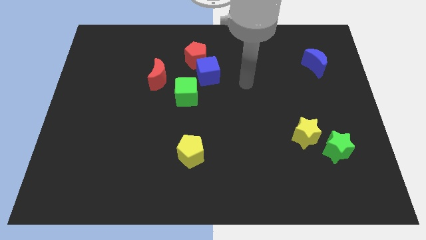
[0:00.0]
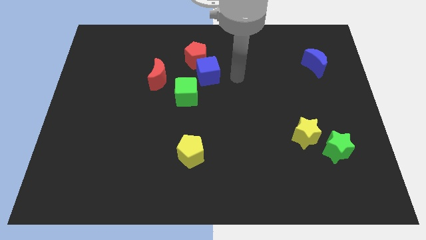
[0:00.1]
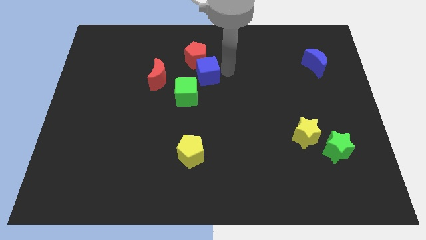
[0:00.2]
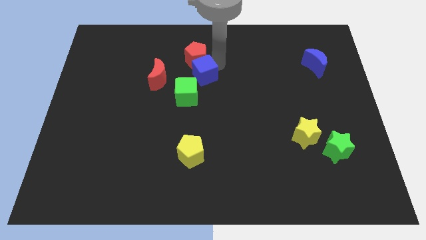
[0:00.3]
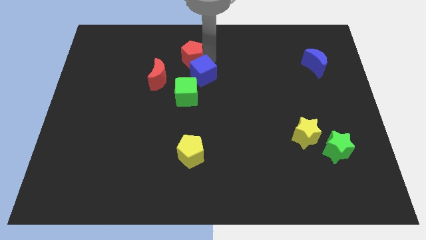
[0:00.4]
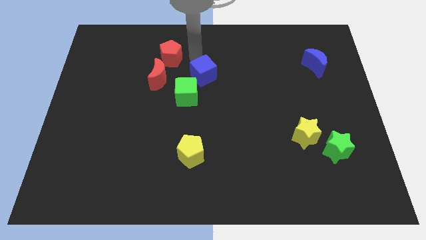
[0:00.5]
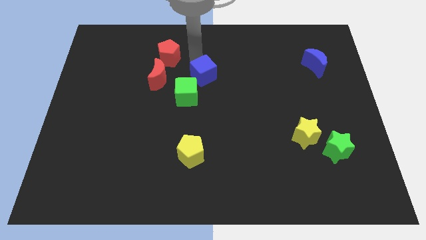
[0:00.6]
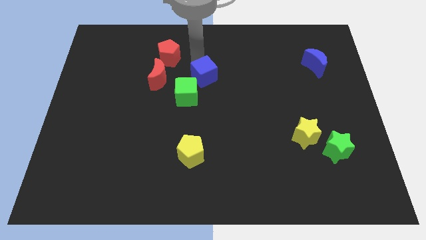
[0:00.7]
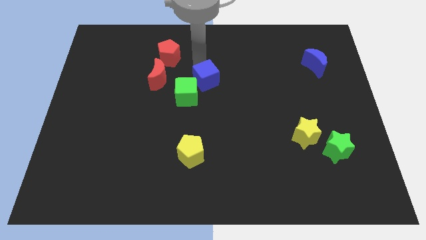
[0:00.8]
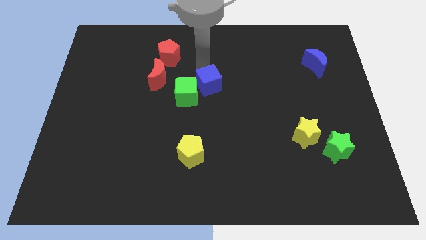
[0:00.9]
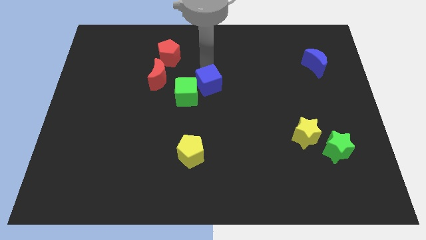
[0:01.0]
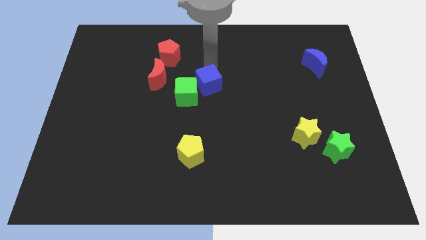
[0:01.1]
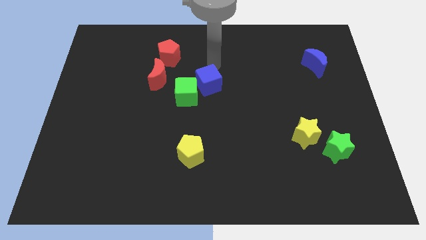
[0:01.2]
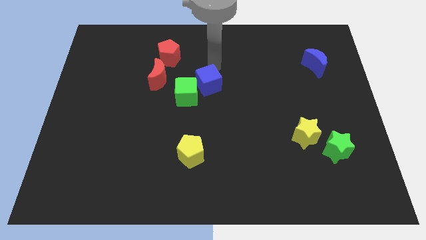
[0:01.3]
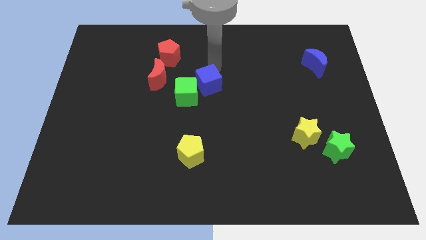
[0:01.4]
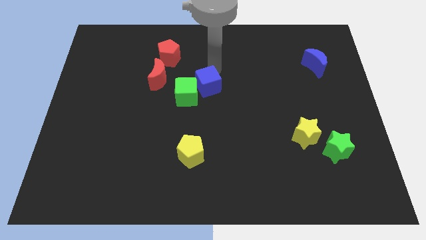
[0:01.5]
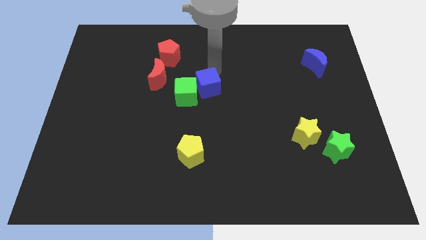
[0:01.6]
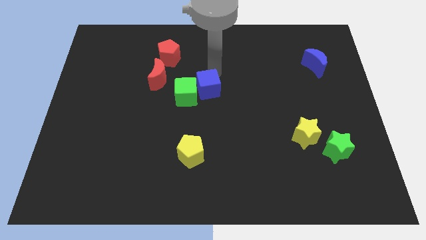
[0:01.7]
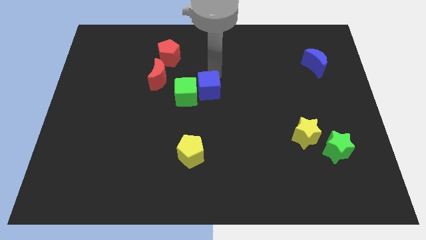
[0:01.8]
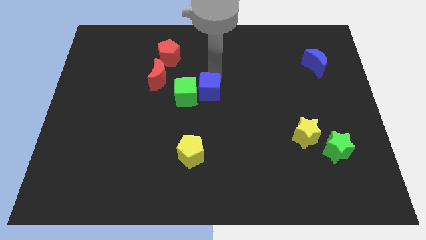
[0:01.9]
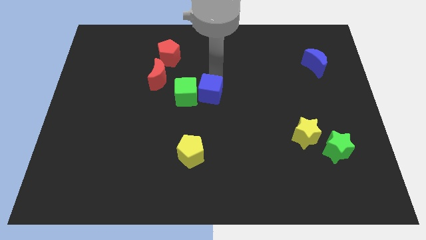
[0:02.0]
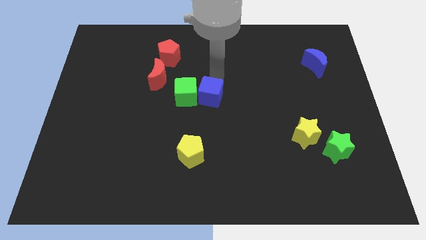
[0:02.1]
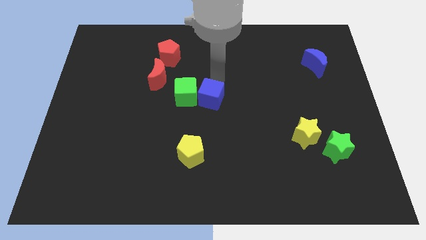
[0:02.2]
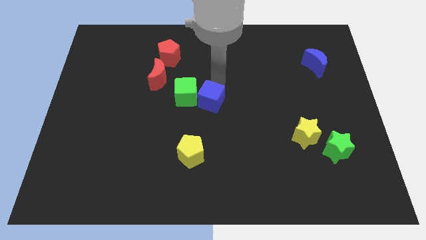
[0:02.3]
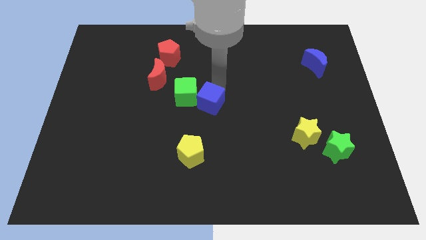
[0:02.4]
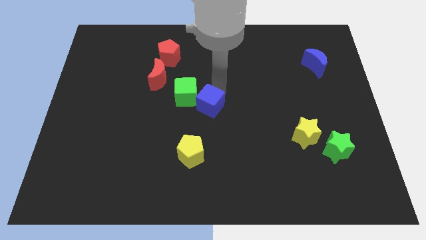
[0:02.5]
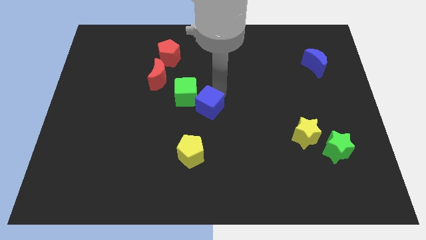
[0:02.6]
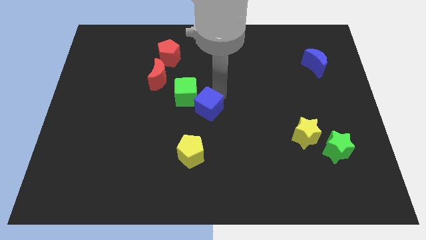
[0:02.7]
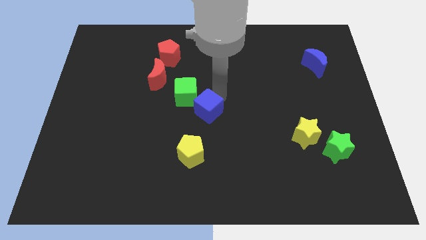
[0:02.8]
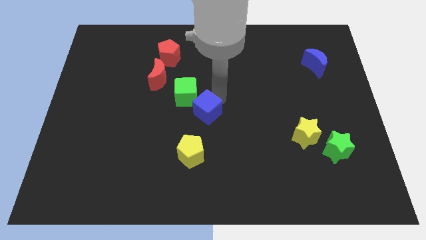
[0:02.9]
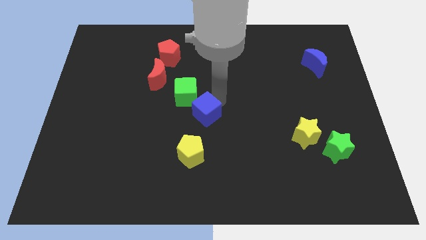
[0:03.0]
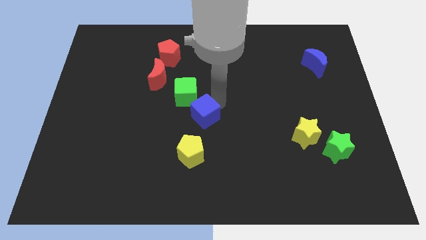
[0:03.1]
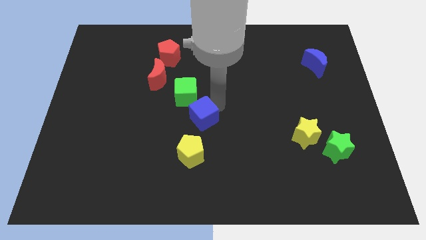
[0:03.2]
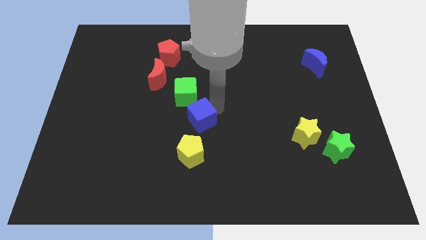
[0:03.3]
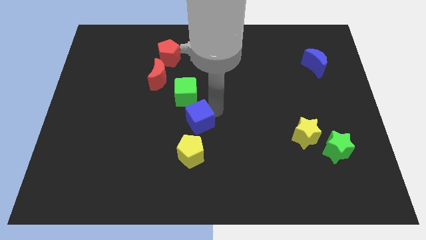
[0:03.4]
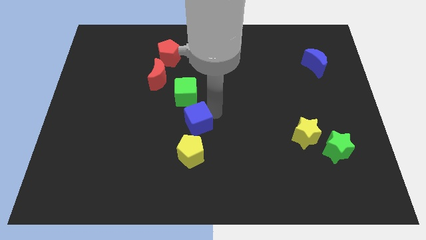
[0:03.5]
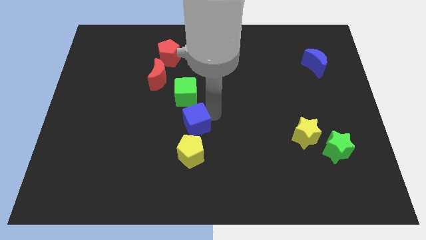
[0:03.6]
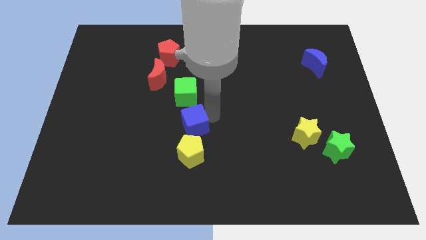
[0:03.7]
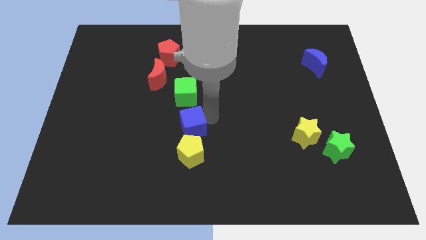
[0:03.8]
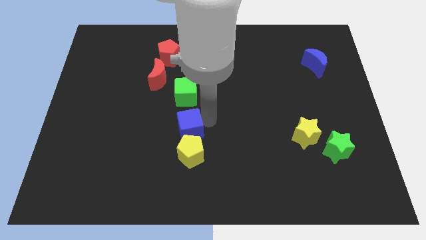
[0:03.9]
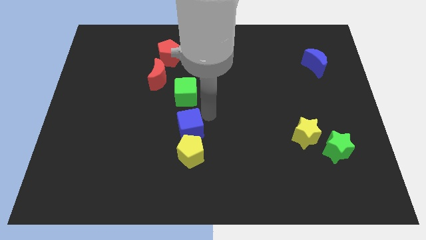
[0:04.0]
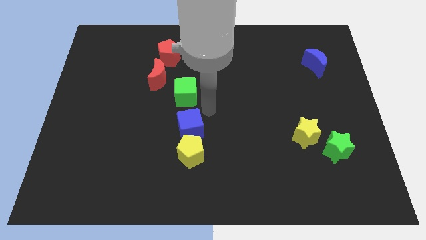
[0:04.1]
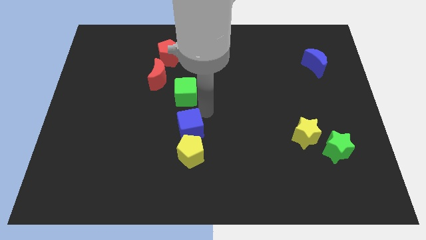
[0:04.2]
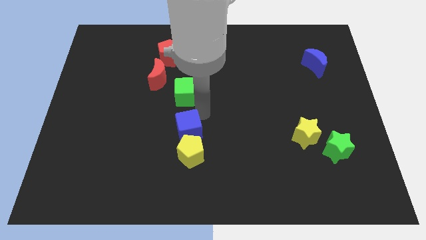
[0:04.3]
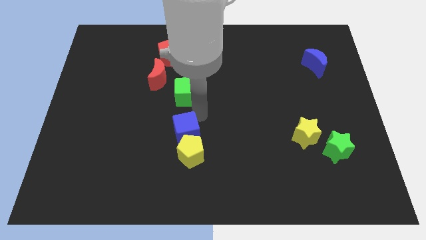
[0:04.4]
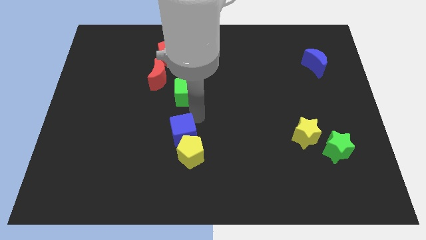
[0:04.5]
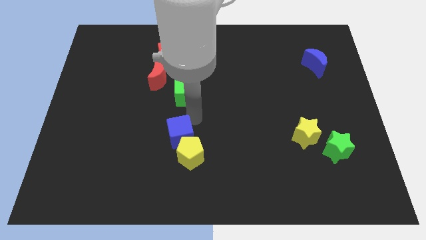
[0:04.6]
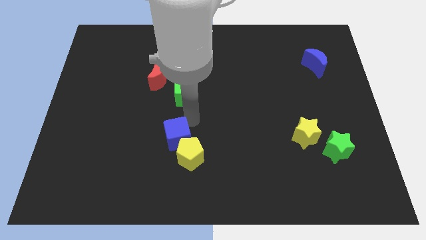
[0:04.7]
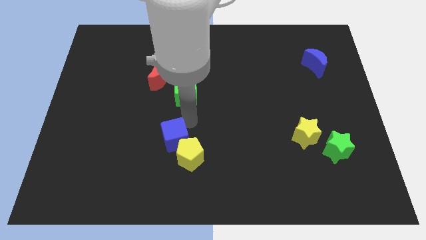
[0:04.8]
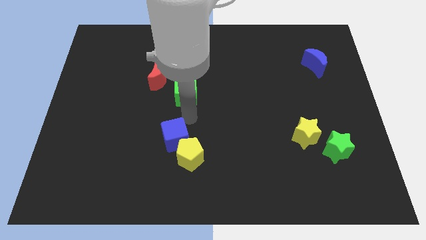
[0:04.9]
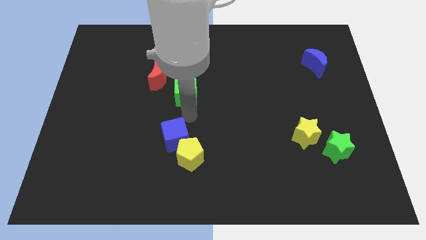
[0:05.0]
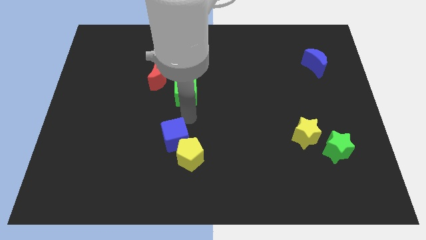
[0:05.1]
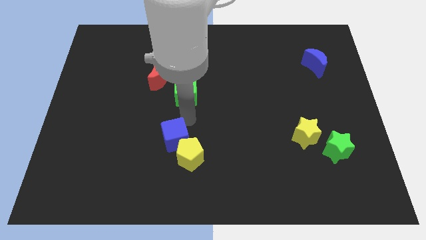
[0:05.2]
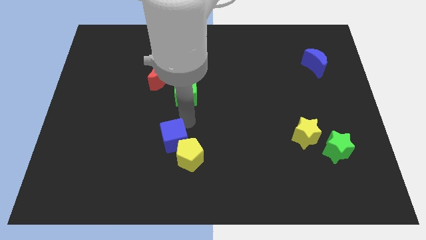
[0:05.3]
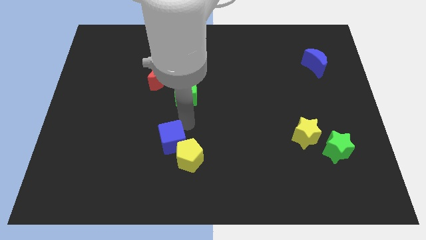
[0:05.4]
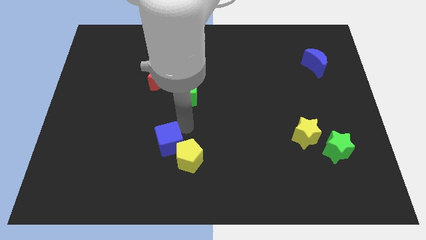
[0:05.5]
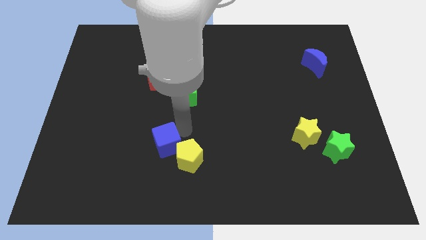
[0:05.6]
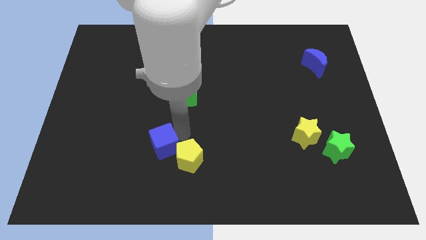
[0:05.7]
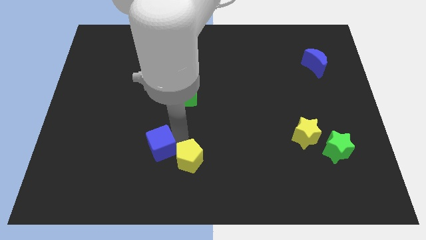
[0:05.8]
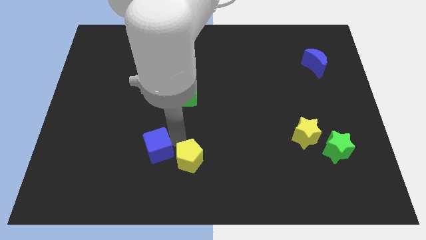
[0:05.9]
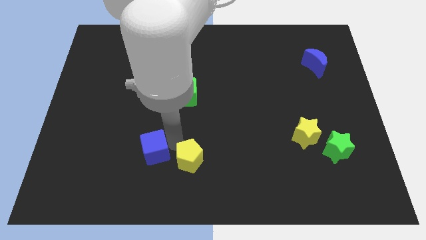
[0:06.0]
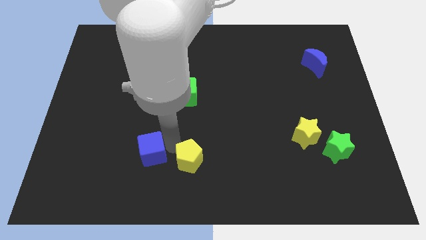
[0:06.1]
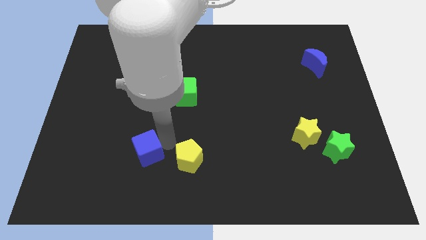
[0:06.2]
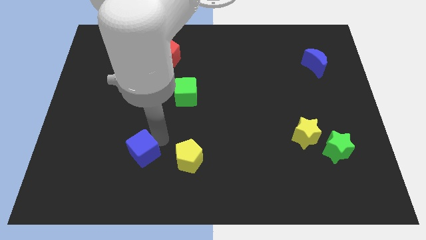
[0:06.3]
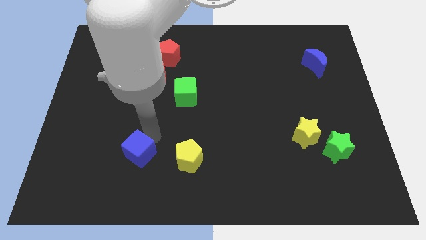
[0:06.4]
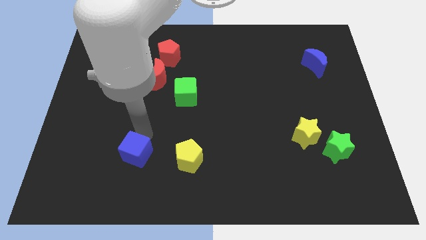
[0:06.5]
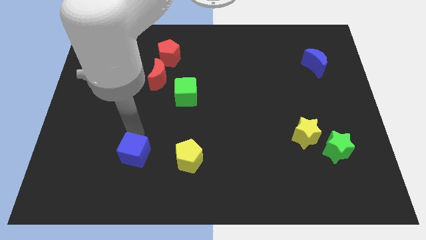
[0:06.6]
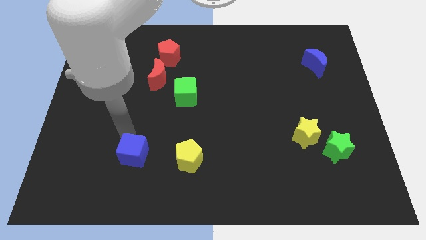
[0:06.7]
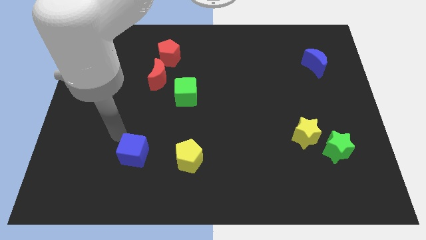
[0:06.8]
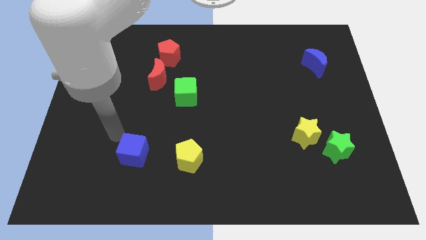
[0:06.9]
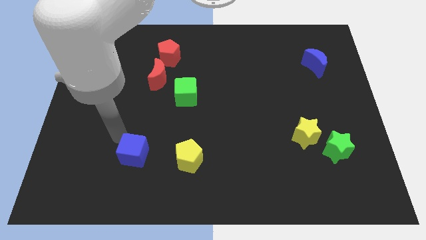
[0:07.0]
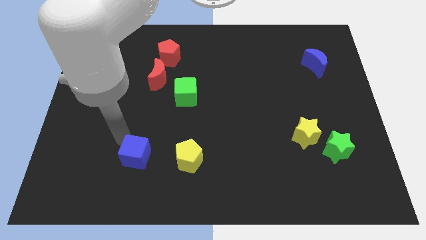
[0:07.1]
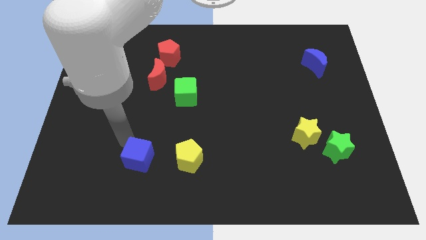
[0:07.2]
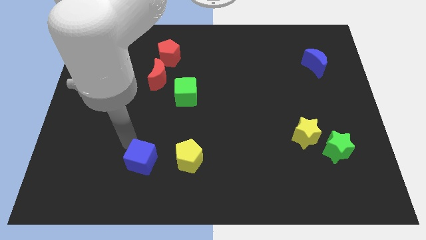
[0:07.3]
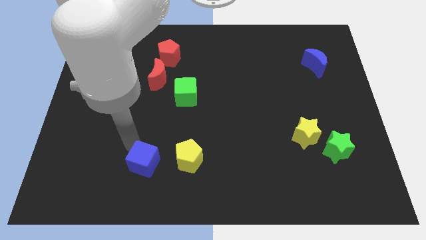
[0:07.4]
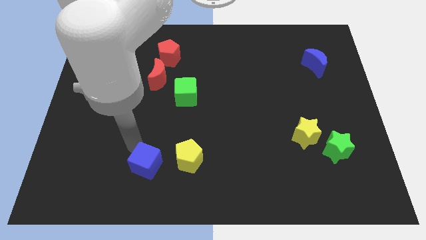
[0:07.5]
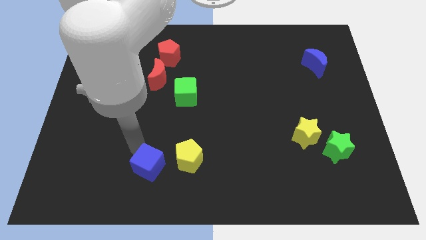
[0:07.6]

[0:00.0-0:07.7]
move the blue cube diagonally down and to the left of the yellow pentagon
